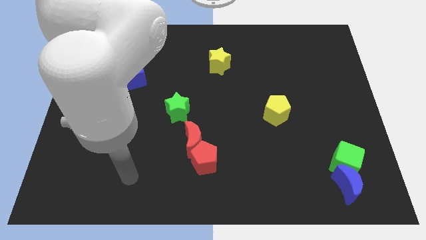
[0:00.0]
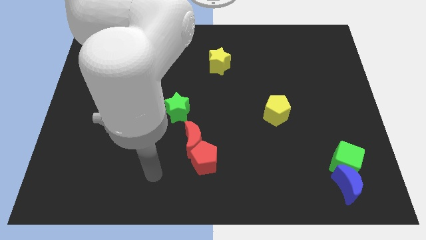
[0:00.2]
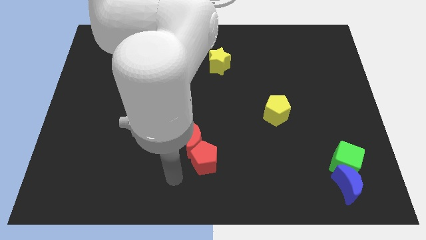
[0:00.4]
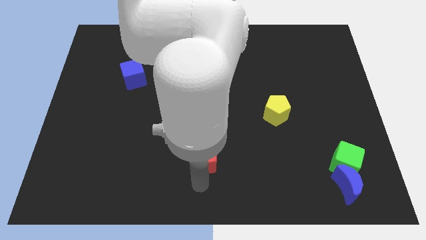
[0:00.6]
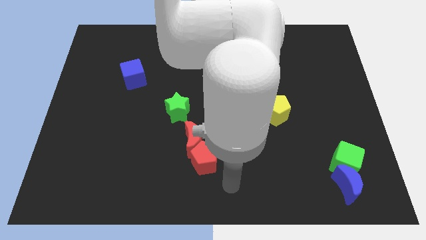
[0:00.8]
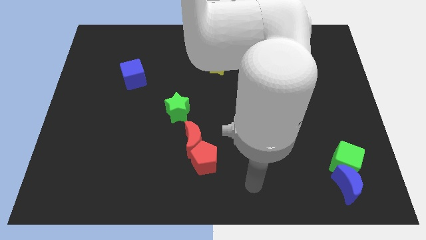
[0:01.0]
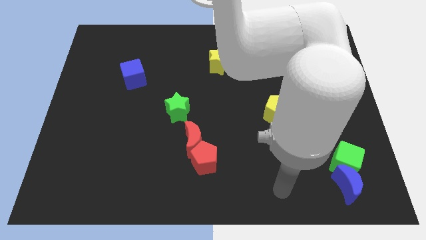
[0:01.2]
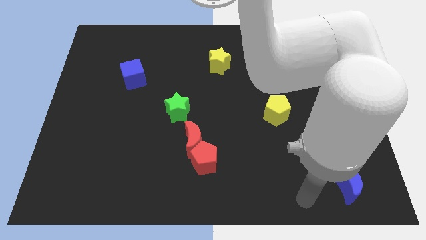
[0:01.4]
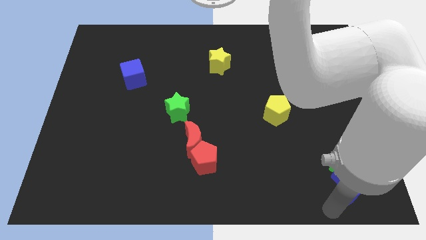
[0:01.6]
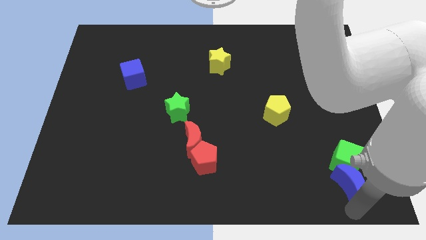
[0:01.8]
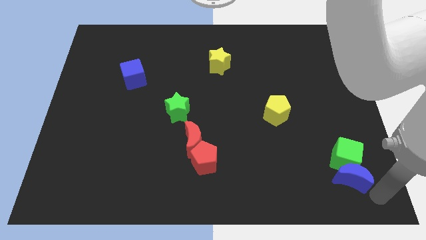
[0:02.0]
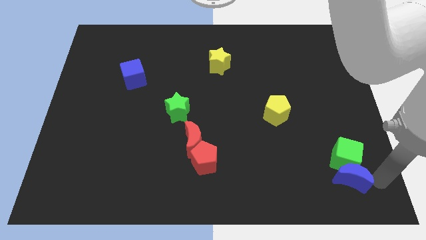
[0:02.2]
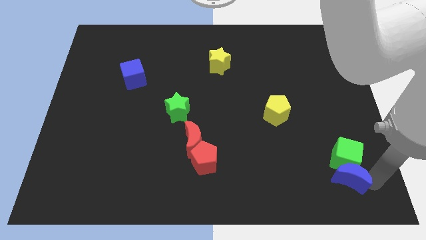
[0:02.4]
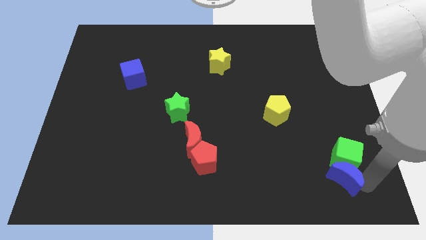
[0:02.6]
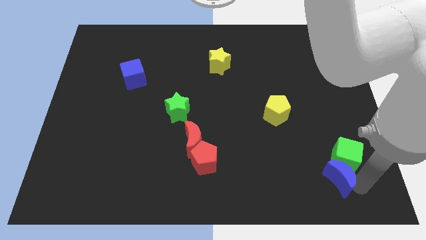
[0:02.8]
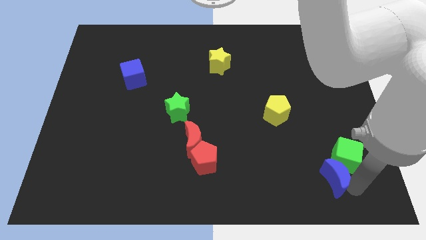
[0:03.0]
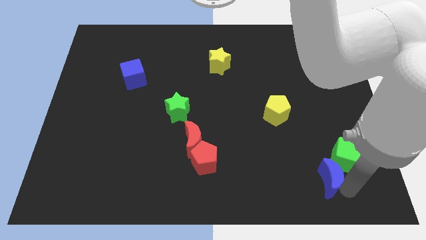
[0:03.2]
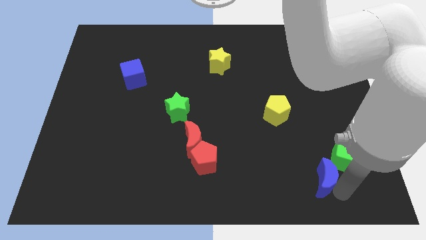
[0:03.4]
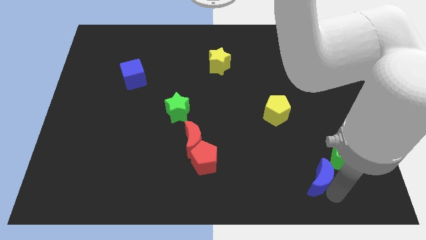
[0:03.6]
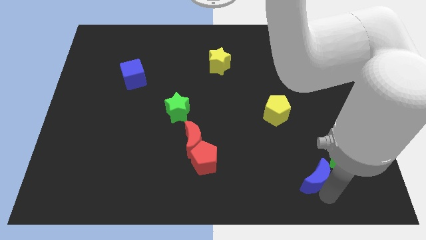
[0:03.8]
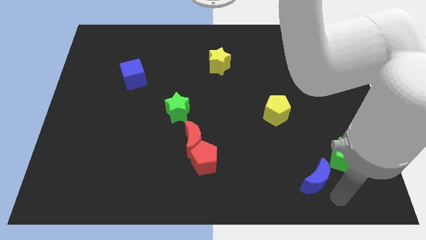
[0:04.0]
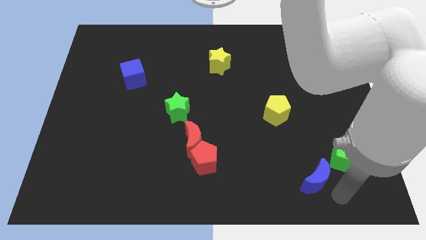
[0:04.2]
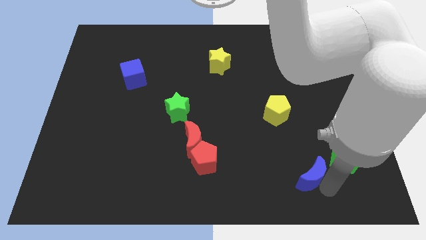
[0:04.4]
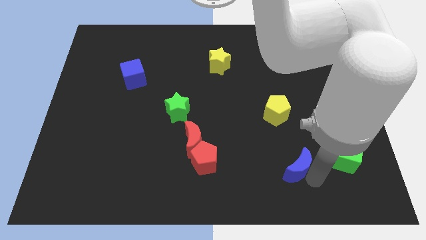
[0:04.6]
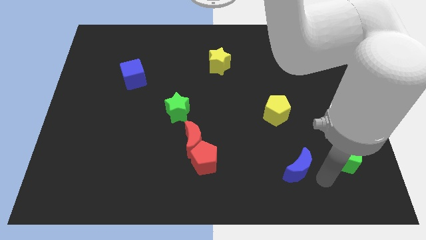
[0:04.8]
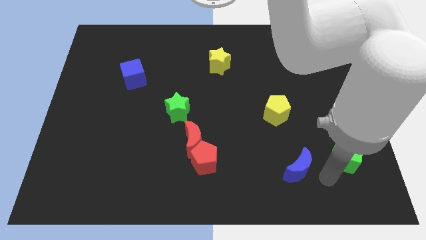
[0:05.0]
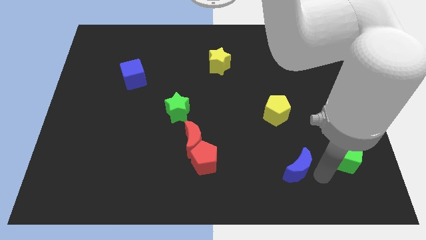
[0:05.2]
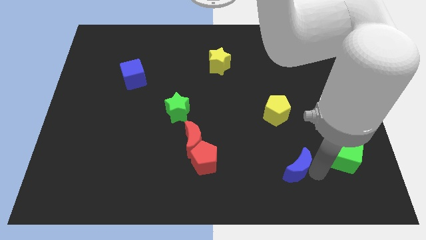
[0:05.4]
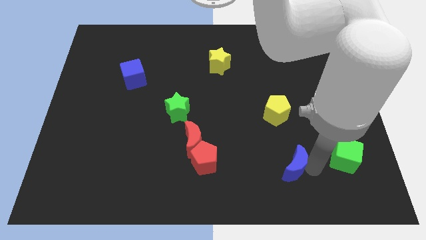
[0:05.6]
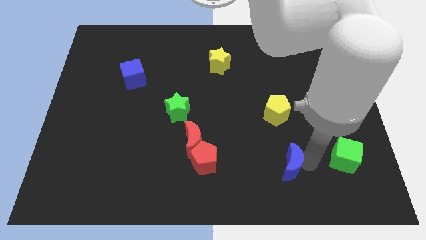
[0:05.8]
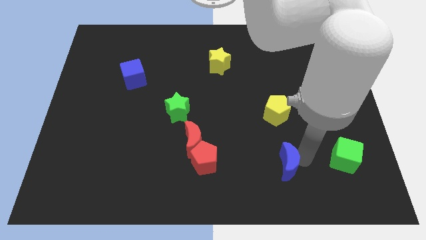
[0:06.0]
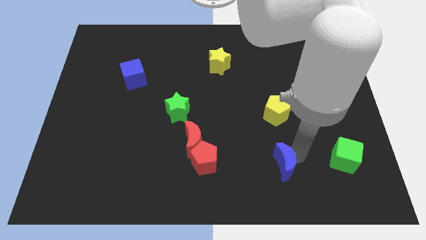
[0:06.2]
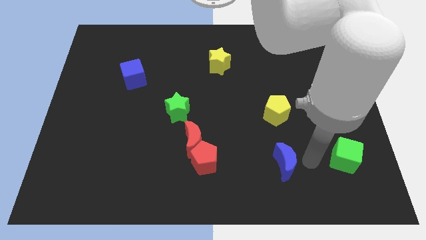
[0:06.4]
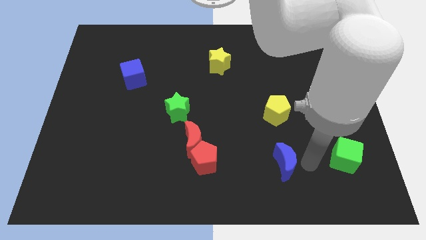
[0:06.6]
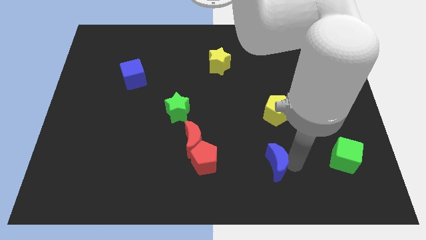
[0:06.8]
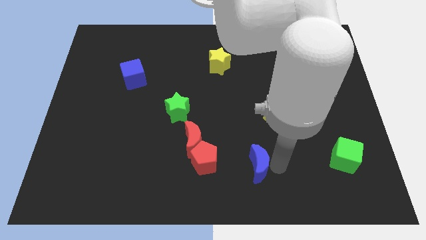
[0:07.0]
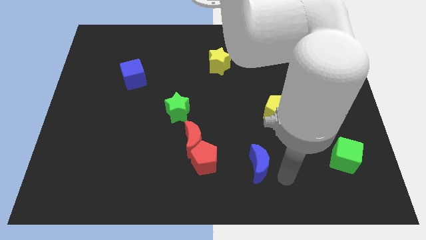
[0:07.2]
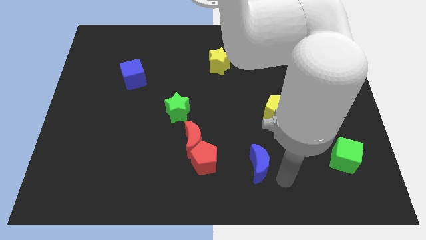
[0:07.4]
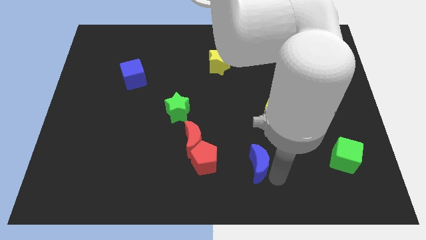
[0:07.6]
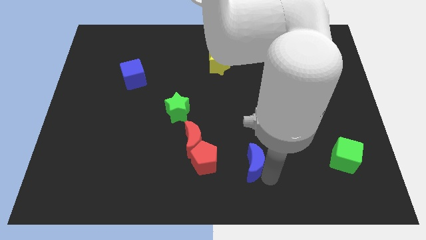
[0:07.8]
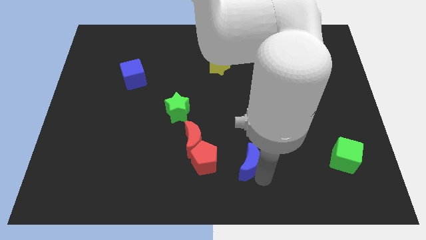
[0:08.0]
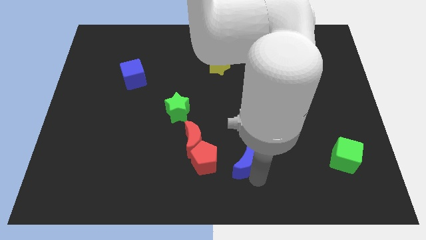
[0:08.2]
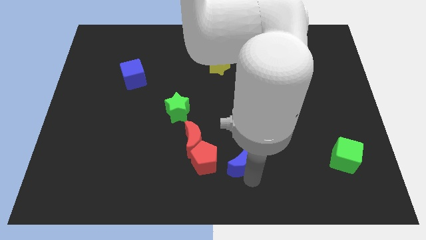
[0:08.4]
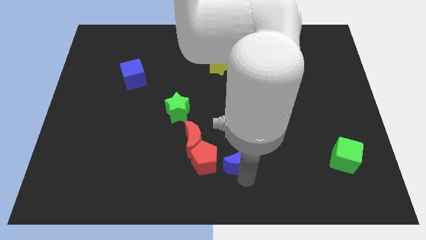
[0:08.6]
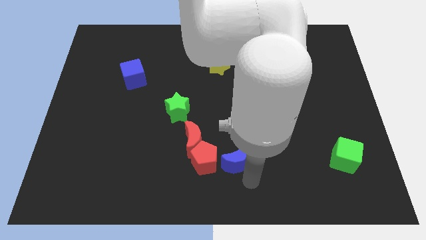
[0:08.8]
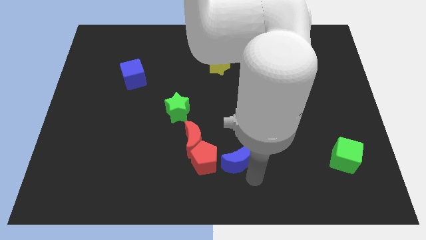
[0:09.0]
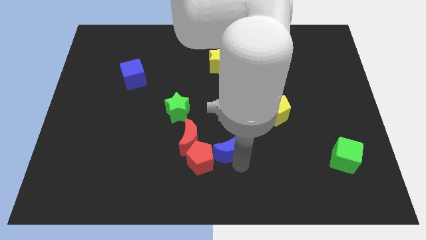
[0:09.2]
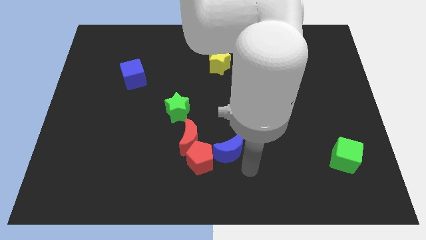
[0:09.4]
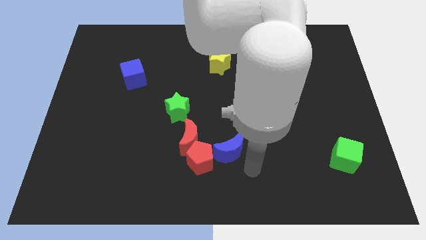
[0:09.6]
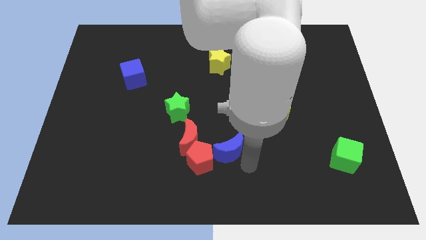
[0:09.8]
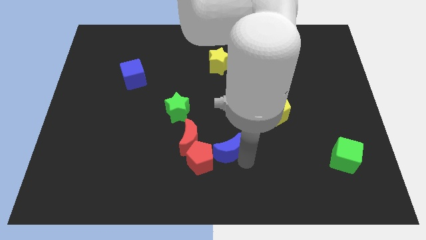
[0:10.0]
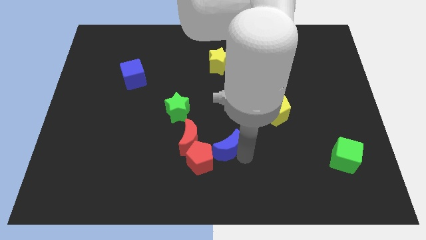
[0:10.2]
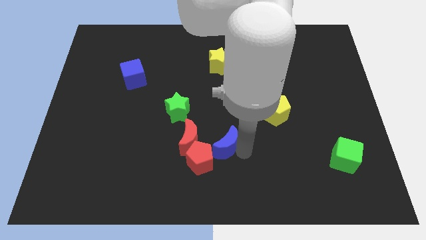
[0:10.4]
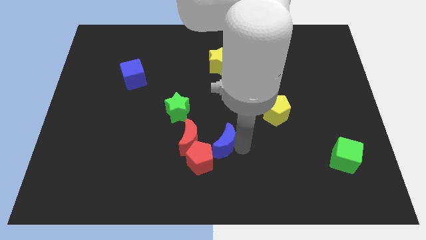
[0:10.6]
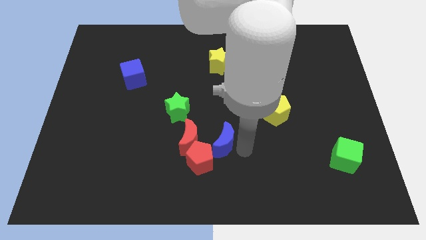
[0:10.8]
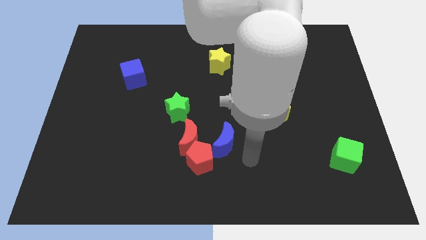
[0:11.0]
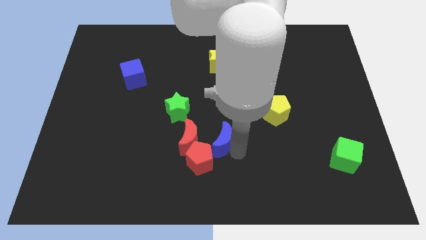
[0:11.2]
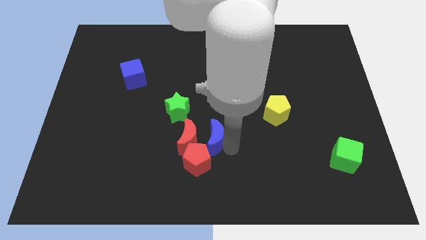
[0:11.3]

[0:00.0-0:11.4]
push the blue moon diagonally down and to the right of the green star

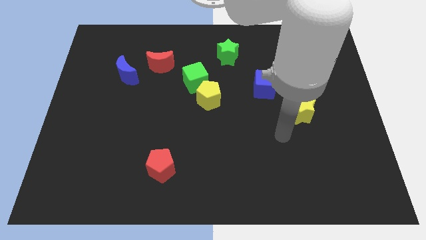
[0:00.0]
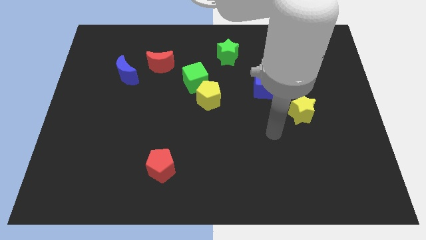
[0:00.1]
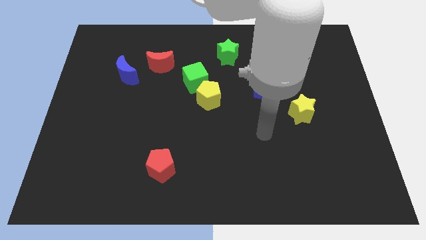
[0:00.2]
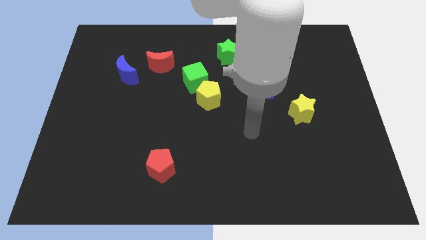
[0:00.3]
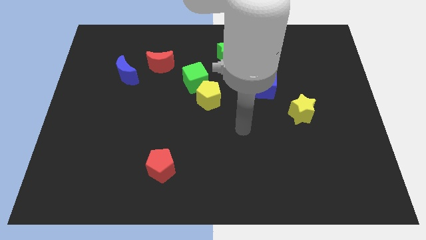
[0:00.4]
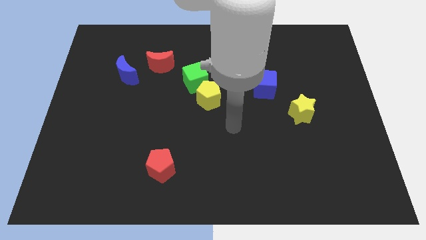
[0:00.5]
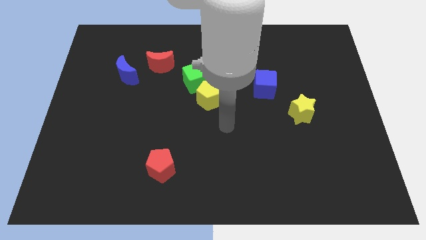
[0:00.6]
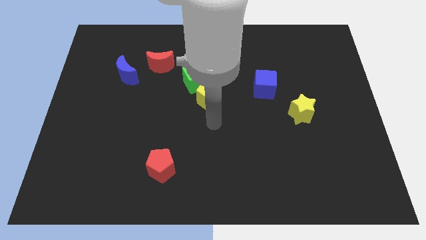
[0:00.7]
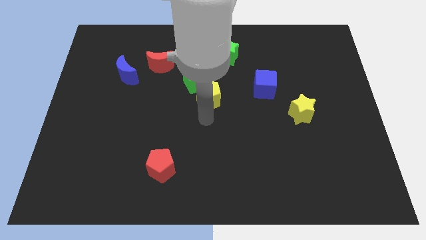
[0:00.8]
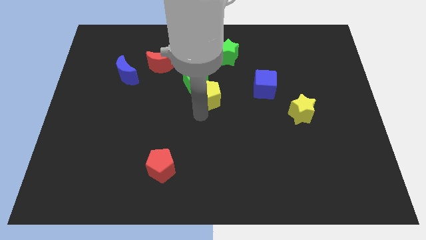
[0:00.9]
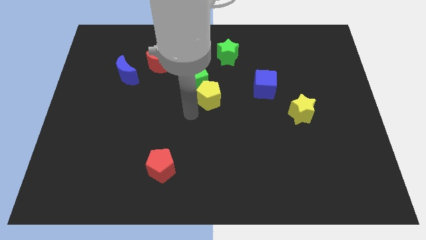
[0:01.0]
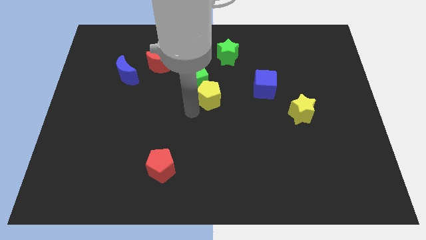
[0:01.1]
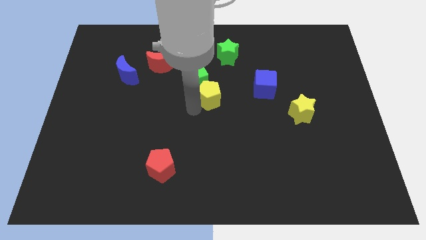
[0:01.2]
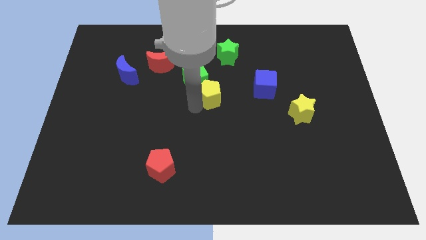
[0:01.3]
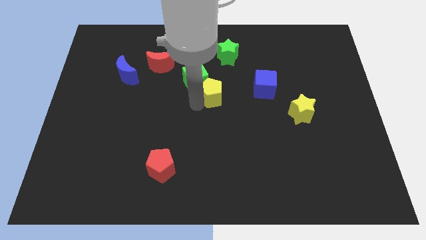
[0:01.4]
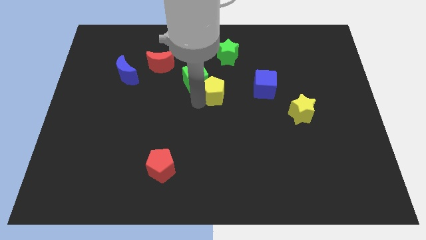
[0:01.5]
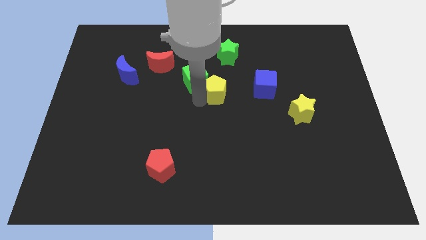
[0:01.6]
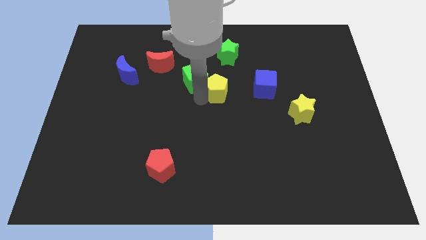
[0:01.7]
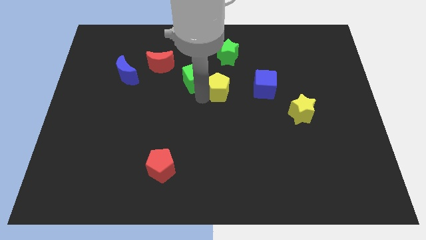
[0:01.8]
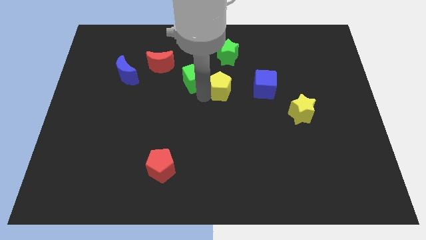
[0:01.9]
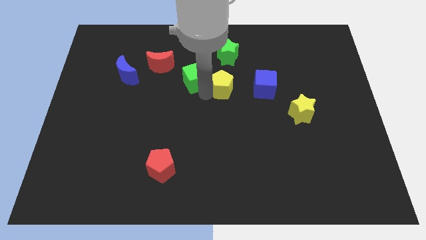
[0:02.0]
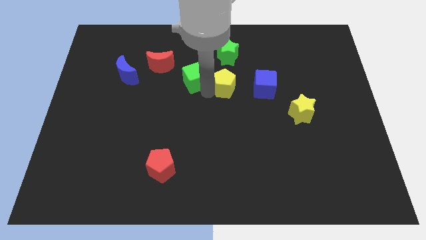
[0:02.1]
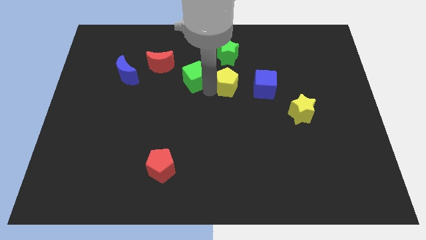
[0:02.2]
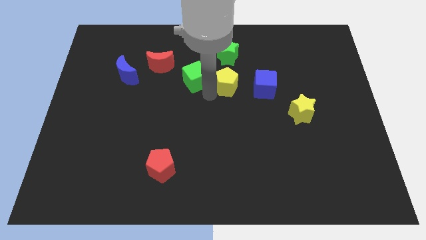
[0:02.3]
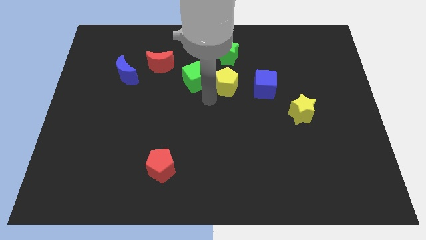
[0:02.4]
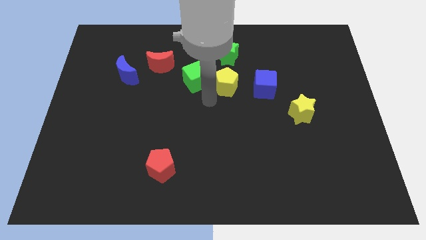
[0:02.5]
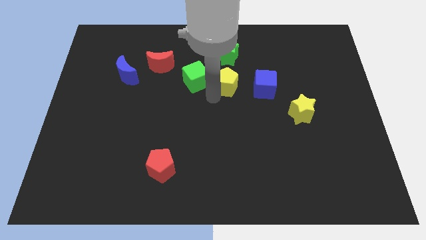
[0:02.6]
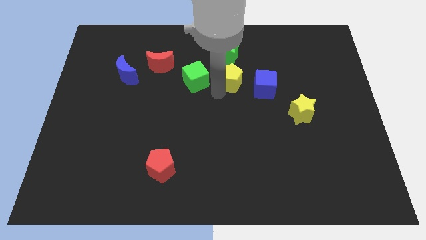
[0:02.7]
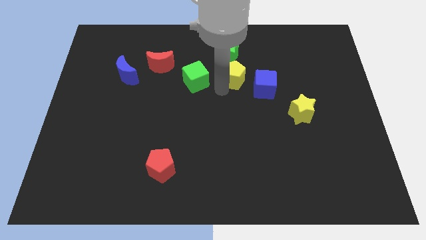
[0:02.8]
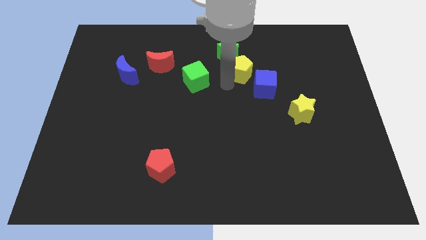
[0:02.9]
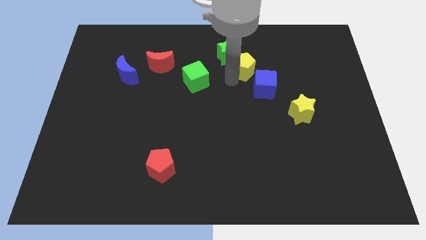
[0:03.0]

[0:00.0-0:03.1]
put the yellow pentagon above the blue cube
